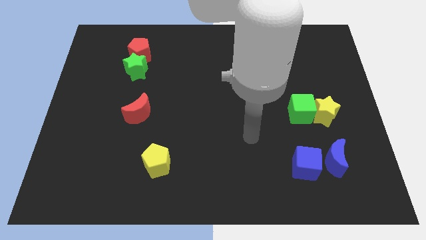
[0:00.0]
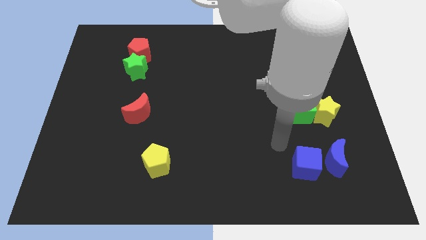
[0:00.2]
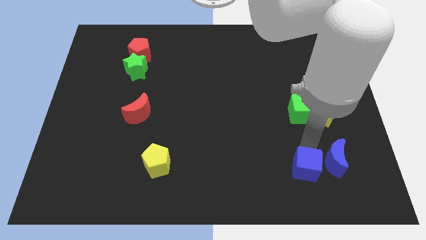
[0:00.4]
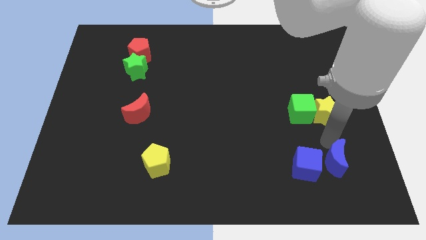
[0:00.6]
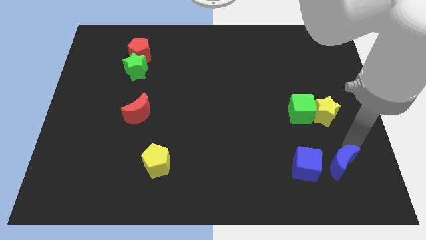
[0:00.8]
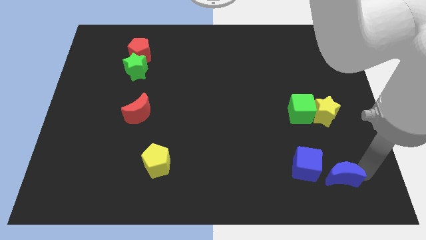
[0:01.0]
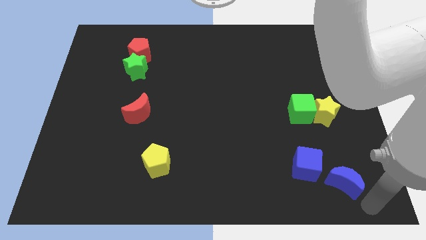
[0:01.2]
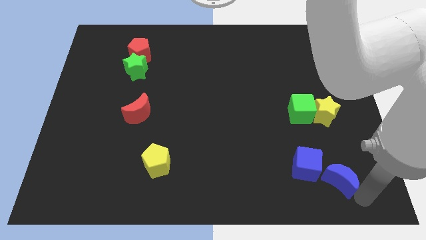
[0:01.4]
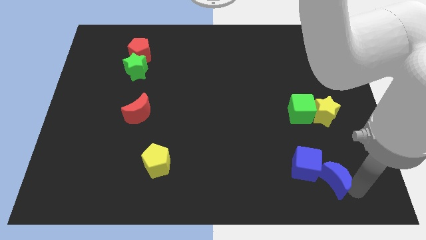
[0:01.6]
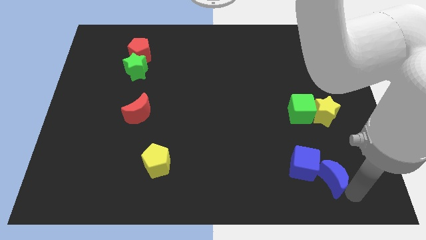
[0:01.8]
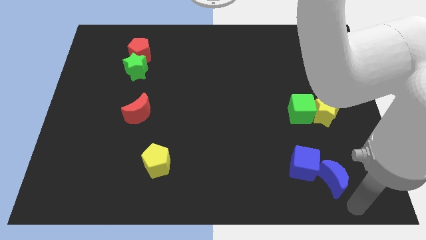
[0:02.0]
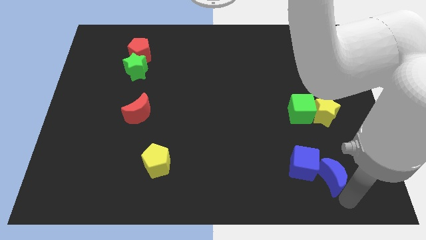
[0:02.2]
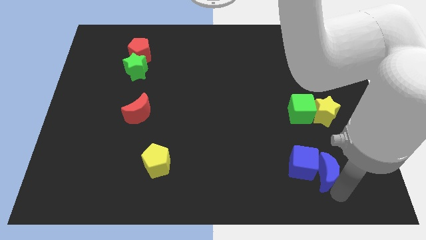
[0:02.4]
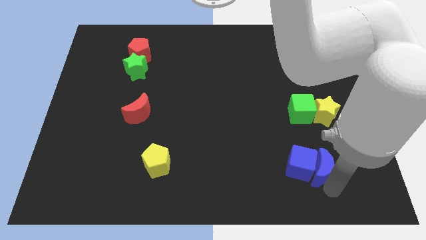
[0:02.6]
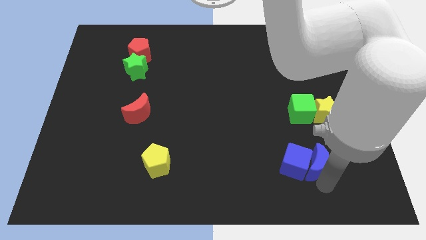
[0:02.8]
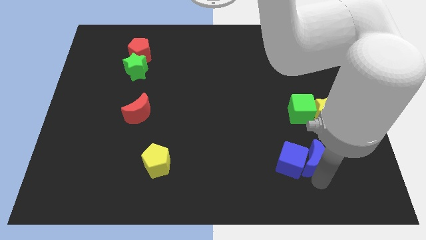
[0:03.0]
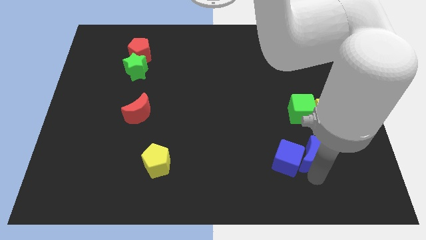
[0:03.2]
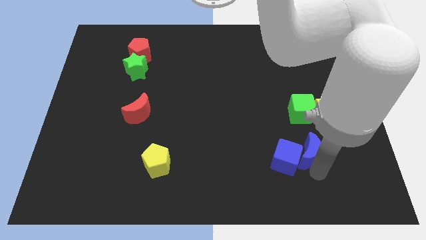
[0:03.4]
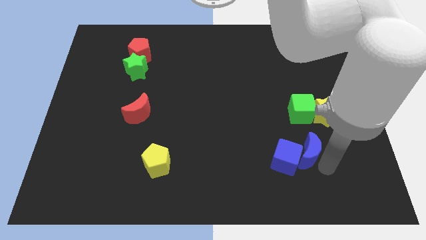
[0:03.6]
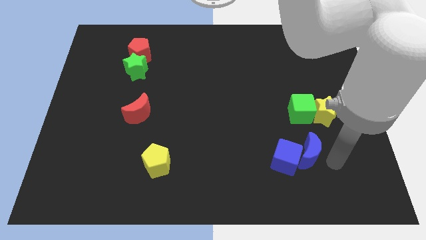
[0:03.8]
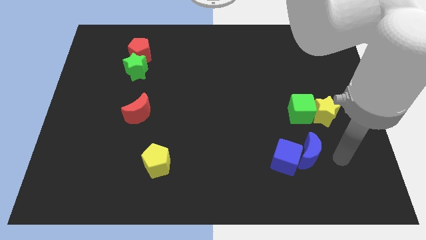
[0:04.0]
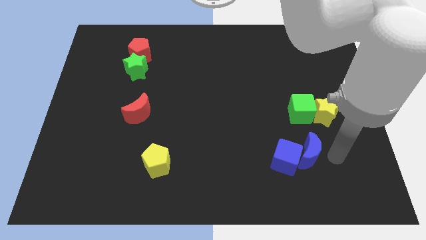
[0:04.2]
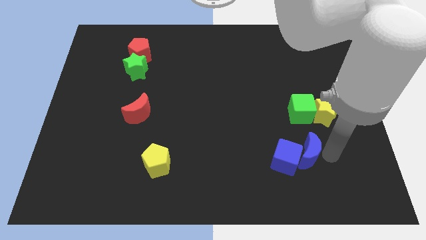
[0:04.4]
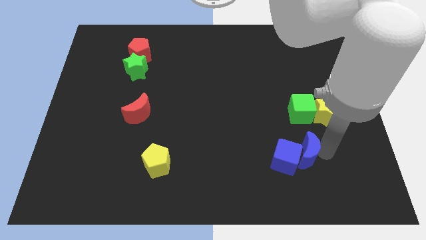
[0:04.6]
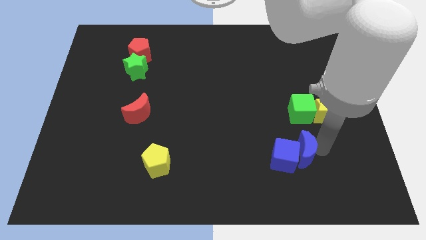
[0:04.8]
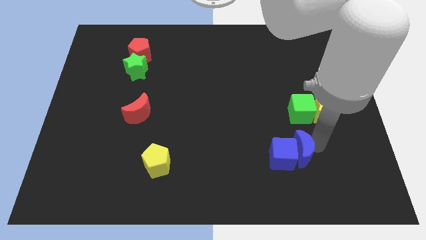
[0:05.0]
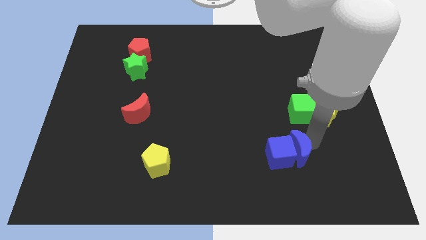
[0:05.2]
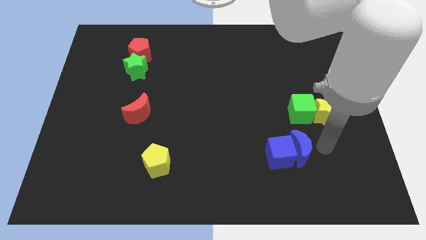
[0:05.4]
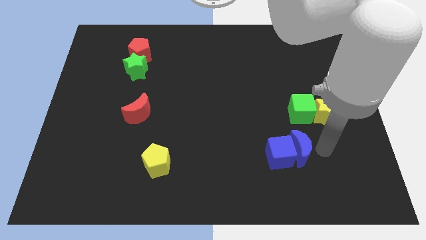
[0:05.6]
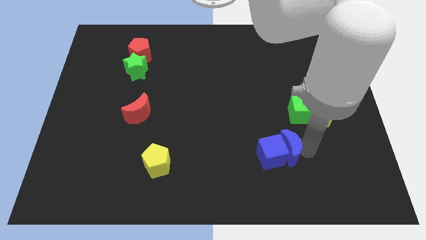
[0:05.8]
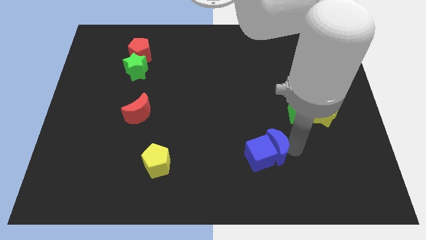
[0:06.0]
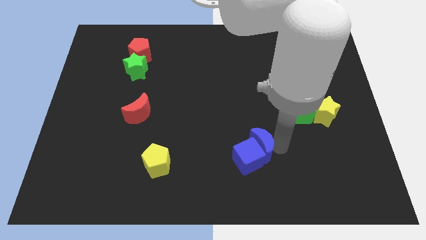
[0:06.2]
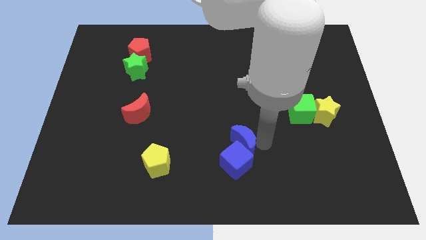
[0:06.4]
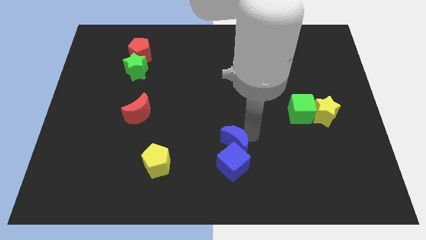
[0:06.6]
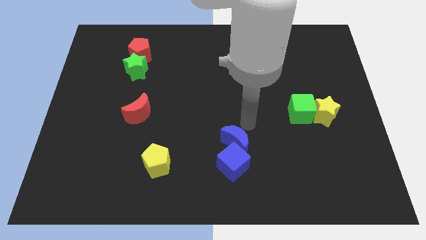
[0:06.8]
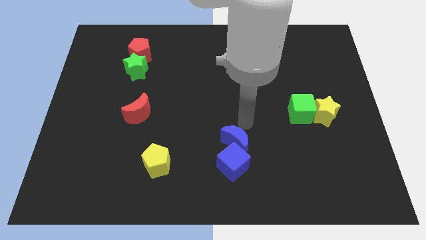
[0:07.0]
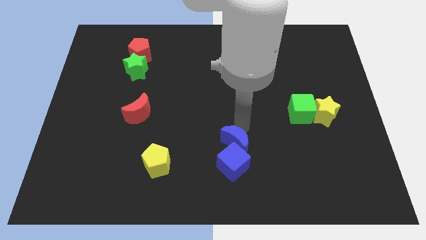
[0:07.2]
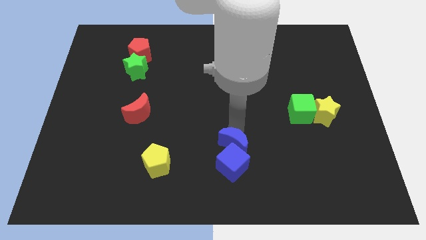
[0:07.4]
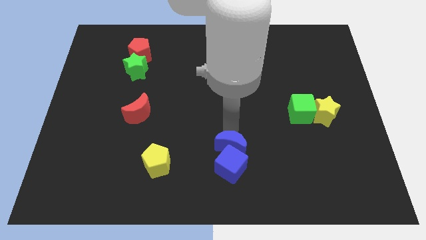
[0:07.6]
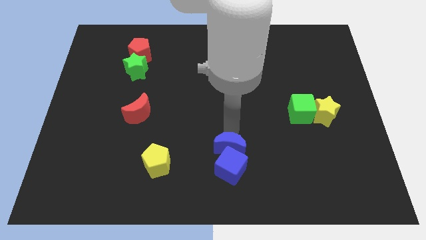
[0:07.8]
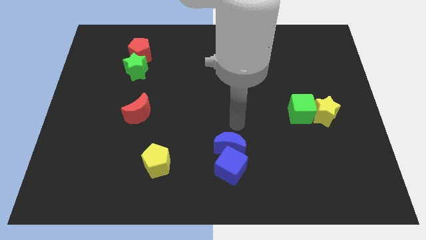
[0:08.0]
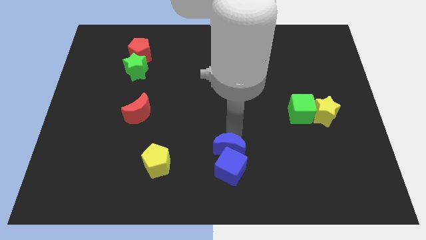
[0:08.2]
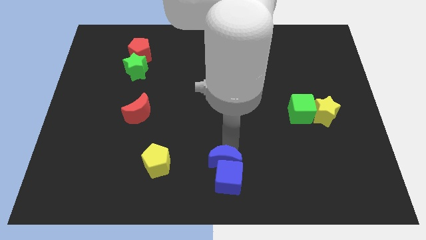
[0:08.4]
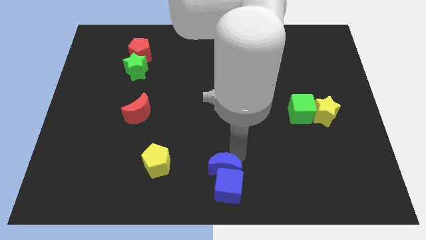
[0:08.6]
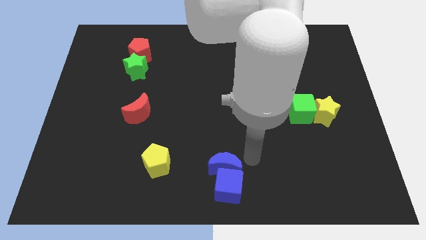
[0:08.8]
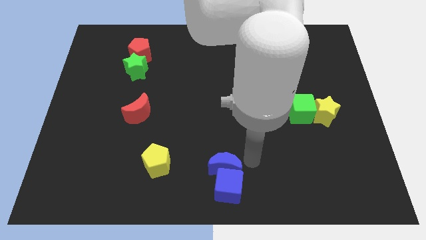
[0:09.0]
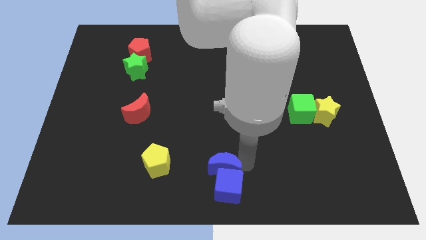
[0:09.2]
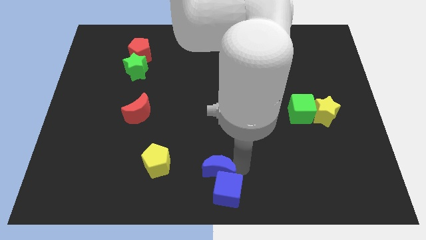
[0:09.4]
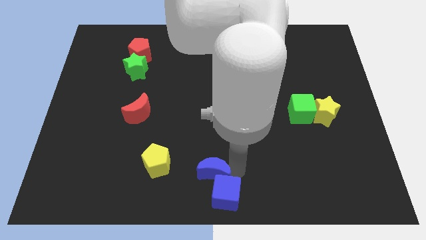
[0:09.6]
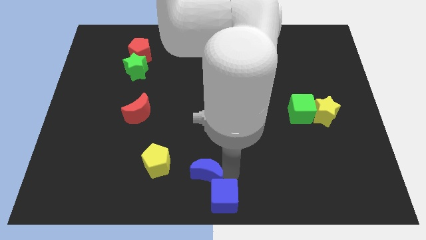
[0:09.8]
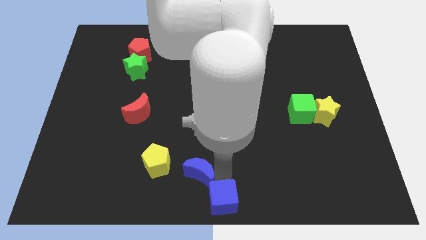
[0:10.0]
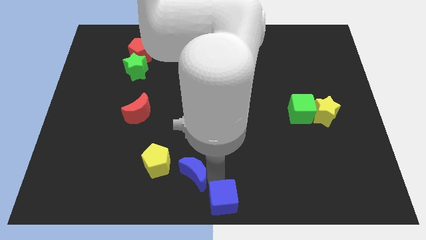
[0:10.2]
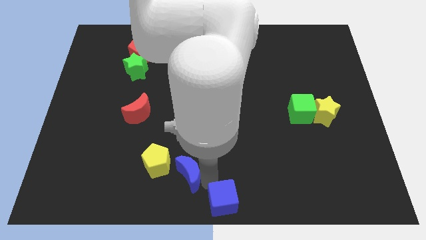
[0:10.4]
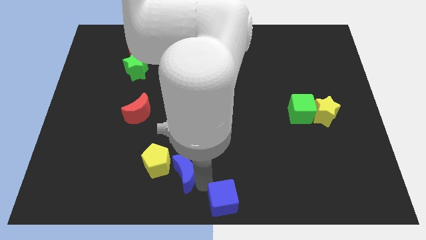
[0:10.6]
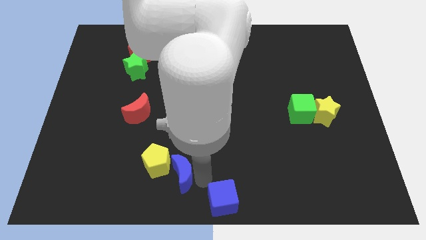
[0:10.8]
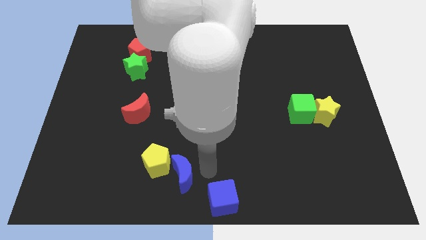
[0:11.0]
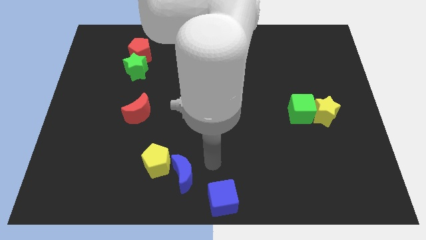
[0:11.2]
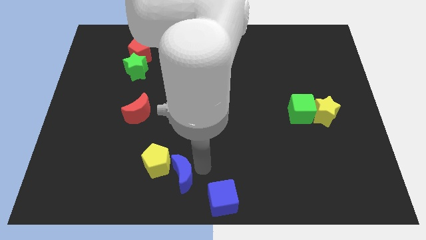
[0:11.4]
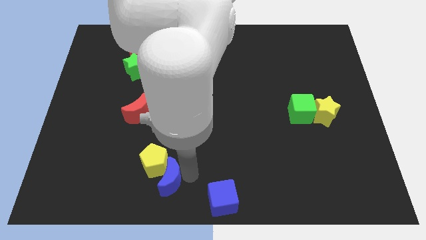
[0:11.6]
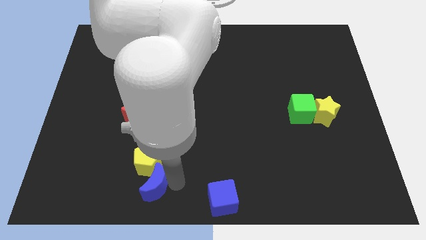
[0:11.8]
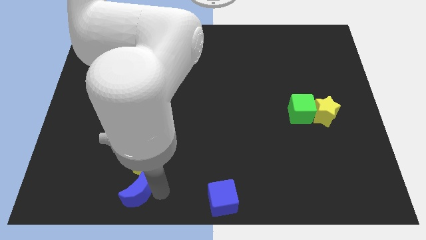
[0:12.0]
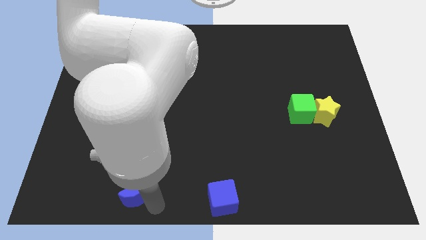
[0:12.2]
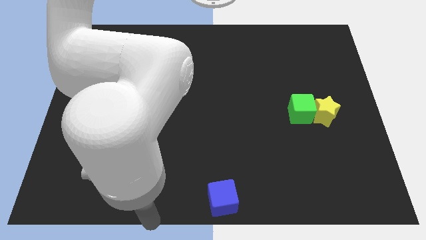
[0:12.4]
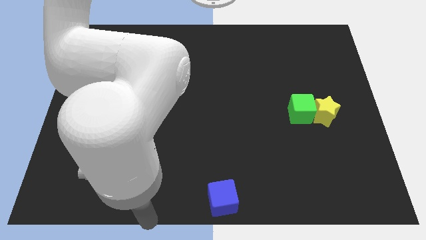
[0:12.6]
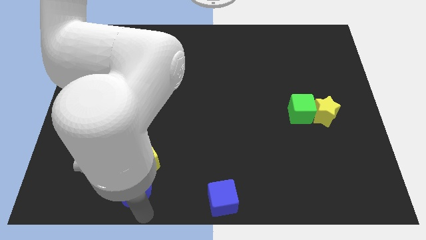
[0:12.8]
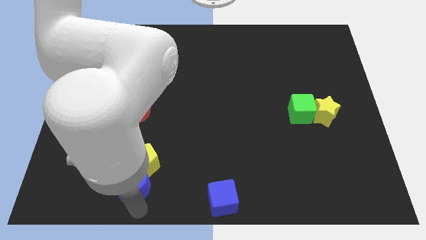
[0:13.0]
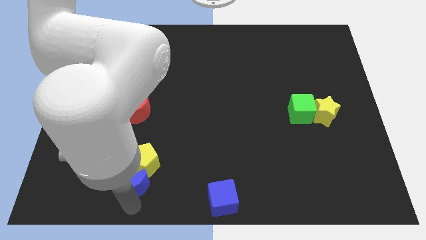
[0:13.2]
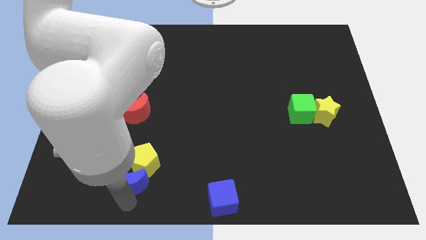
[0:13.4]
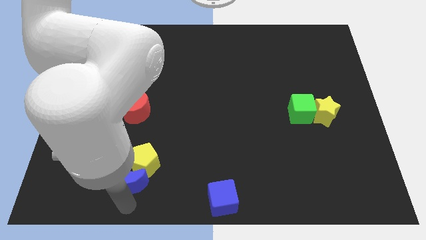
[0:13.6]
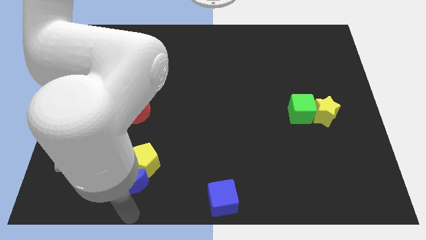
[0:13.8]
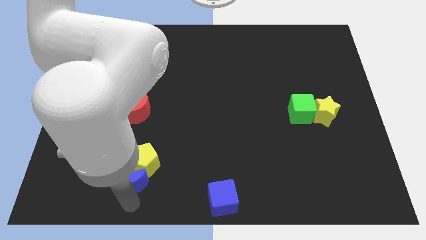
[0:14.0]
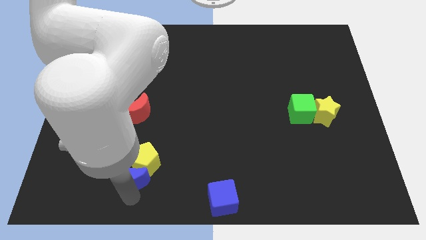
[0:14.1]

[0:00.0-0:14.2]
slide the blue moon to the left side of the yellow pentagon

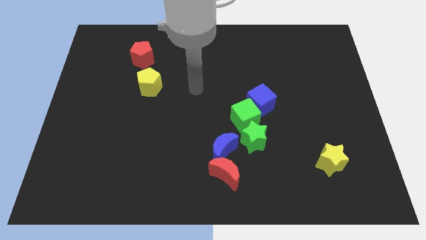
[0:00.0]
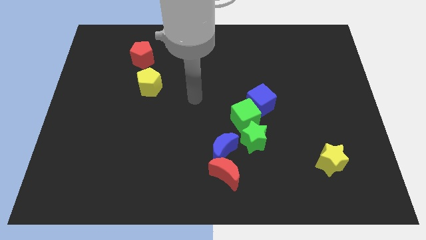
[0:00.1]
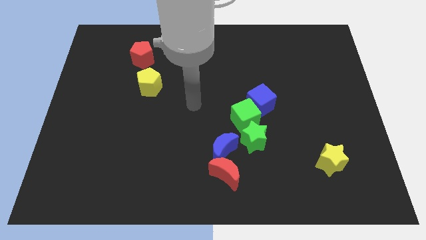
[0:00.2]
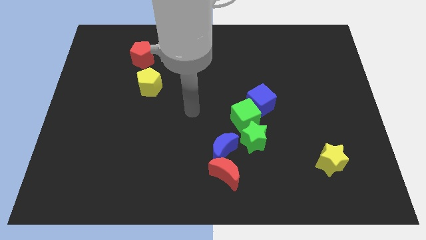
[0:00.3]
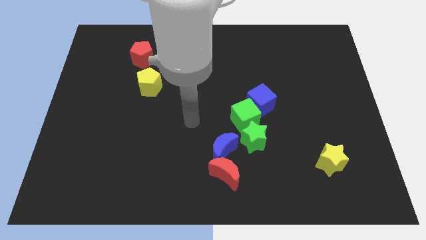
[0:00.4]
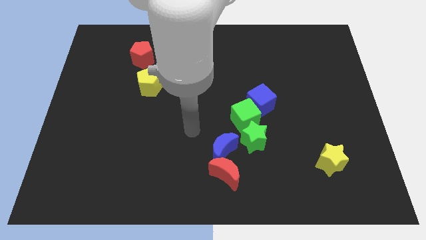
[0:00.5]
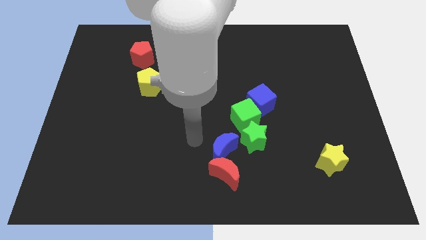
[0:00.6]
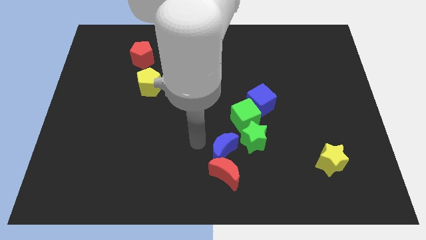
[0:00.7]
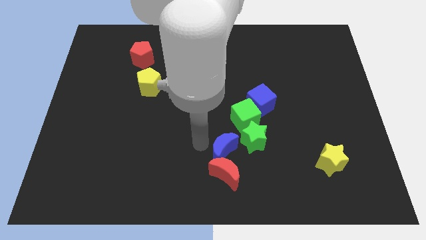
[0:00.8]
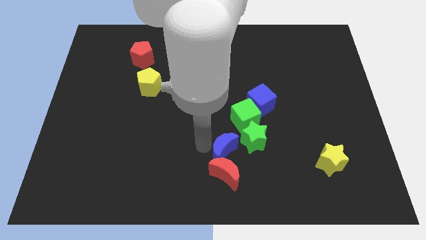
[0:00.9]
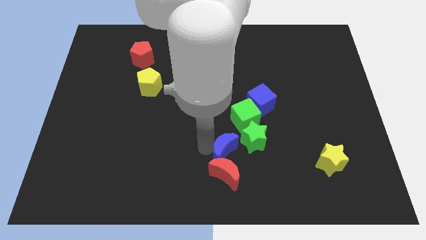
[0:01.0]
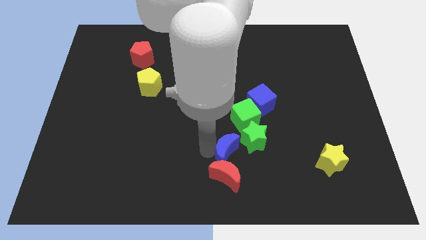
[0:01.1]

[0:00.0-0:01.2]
put the blue moon to the bottom of the green cube
